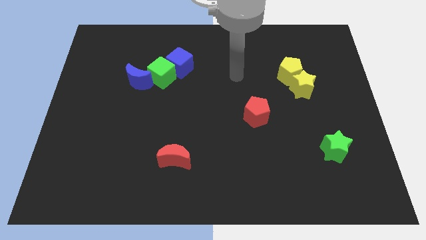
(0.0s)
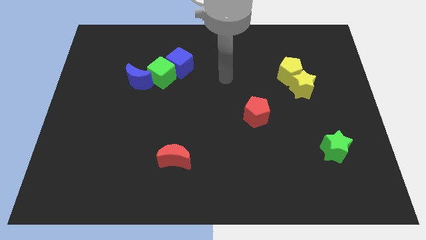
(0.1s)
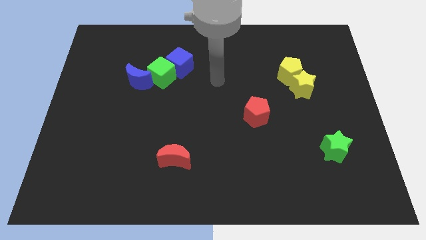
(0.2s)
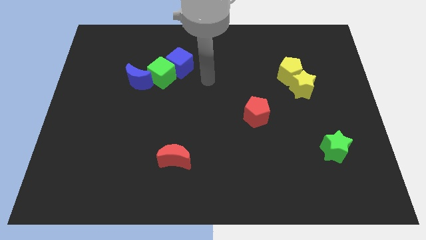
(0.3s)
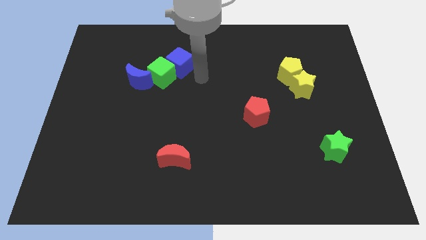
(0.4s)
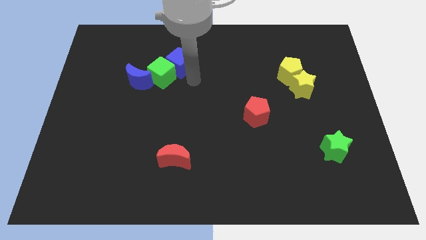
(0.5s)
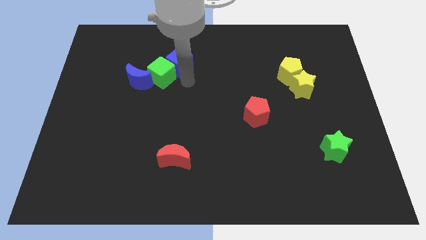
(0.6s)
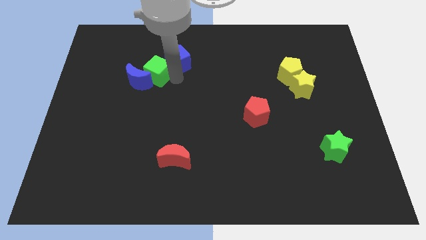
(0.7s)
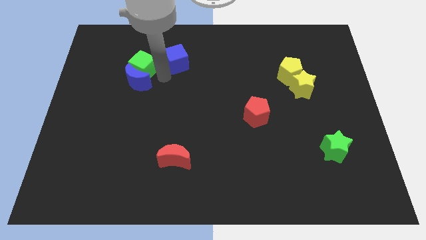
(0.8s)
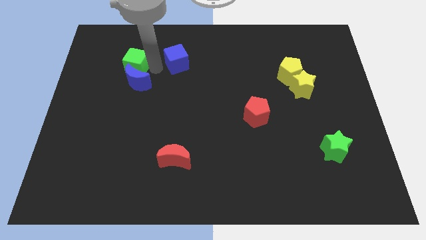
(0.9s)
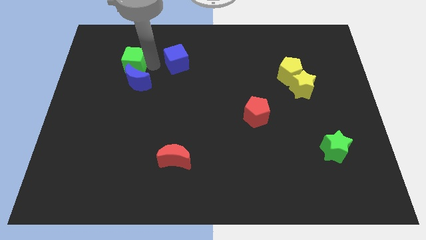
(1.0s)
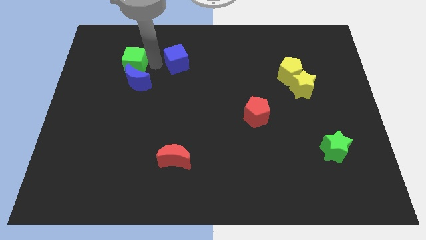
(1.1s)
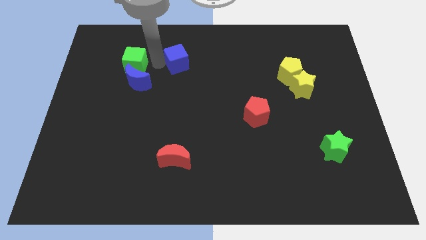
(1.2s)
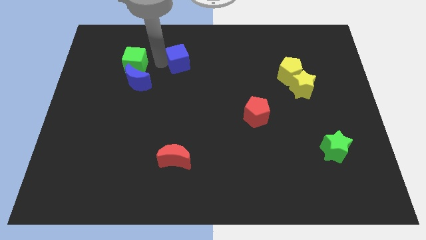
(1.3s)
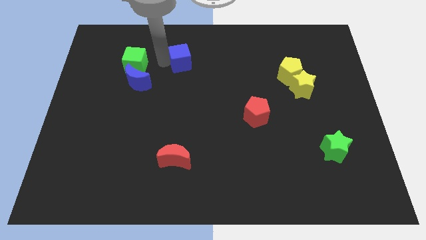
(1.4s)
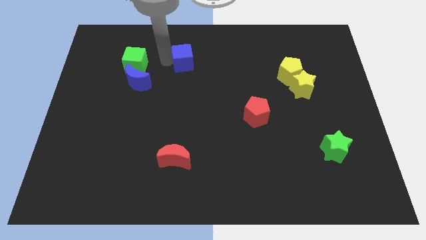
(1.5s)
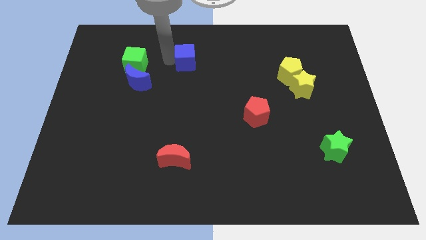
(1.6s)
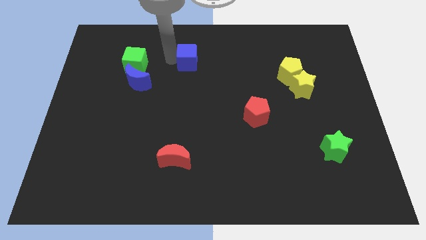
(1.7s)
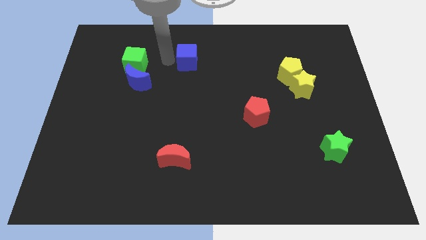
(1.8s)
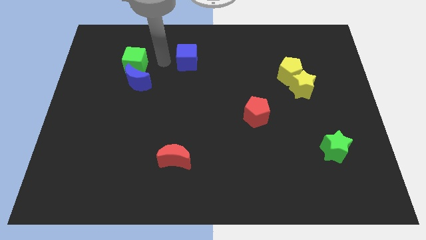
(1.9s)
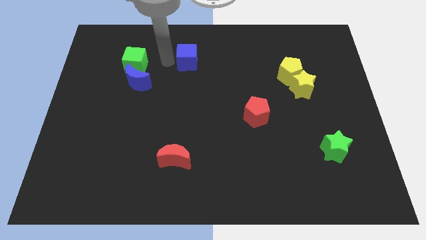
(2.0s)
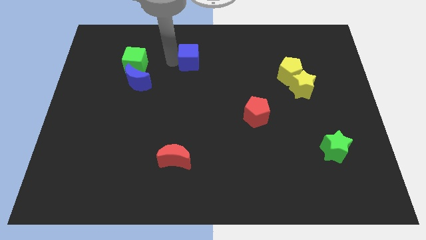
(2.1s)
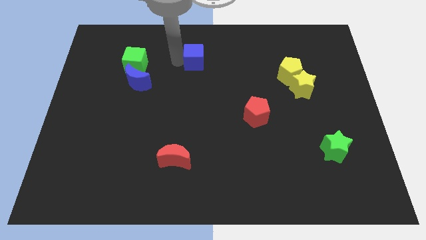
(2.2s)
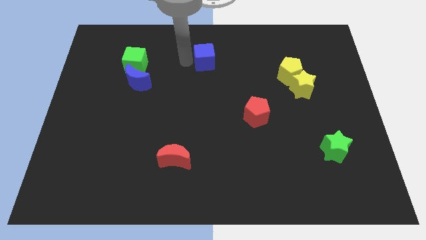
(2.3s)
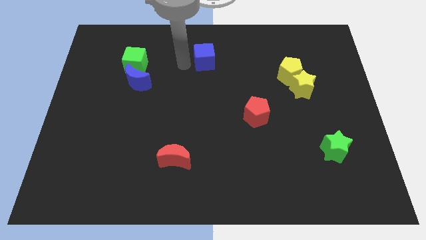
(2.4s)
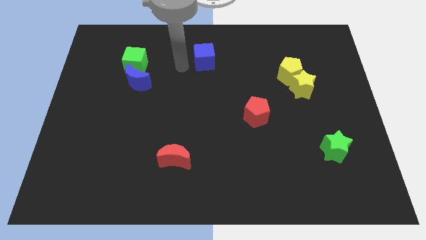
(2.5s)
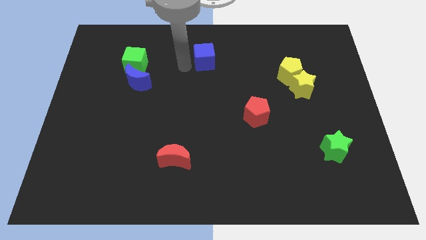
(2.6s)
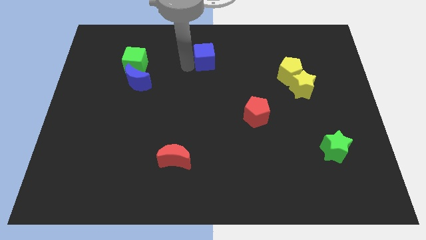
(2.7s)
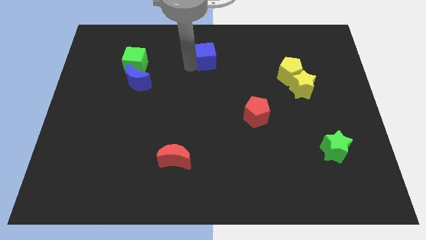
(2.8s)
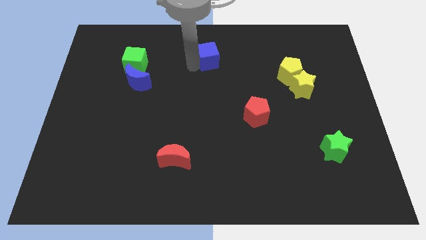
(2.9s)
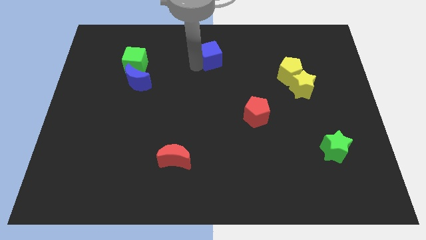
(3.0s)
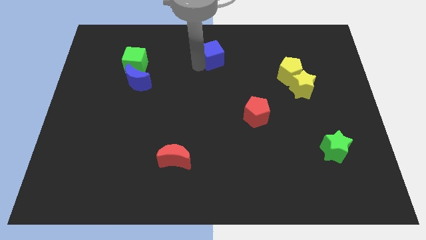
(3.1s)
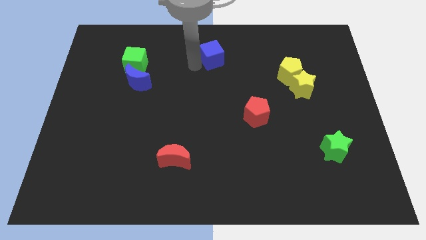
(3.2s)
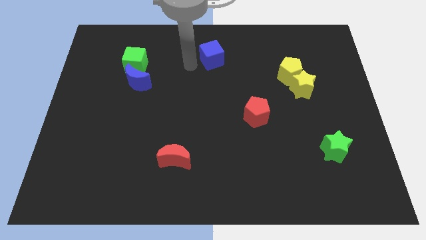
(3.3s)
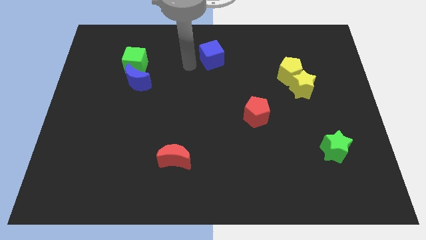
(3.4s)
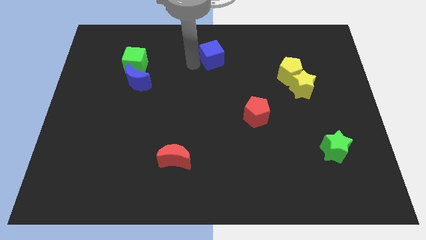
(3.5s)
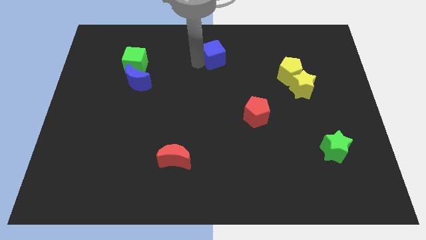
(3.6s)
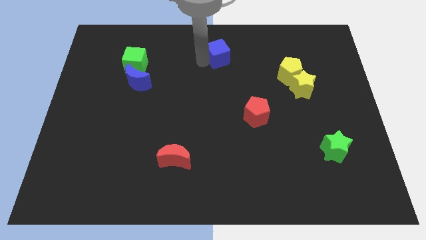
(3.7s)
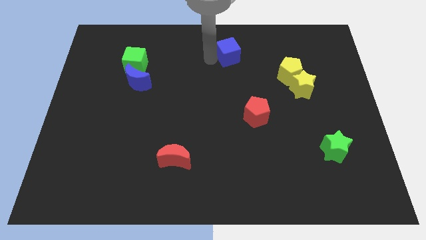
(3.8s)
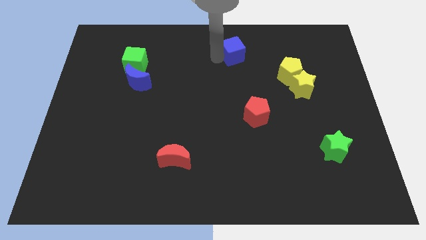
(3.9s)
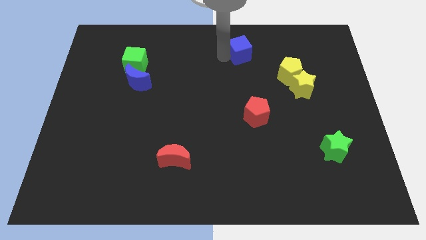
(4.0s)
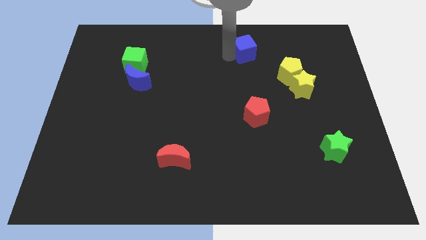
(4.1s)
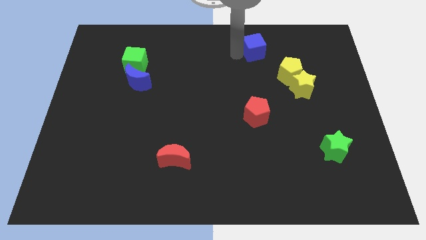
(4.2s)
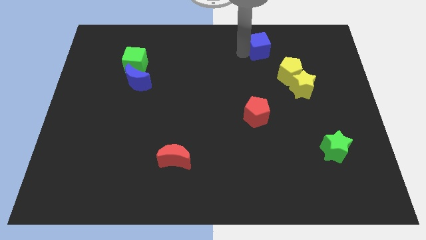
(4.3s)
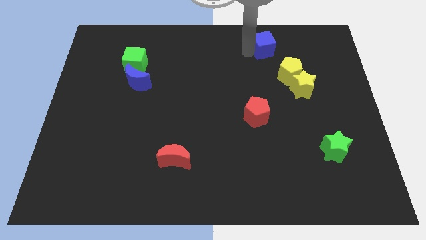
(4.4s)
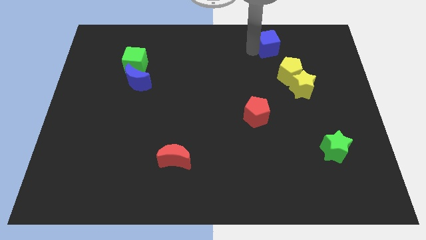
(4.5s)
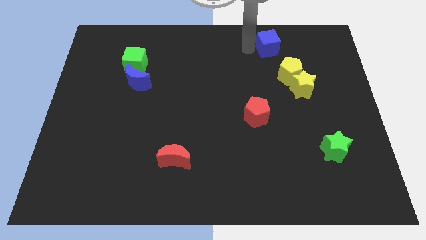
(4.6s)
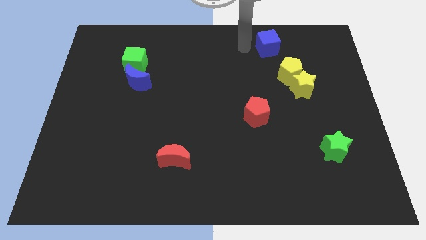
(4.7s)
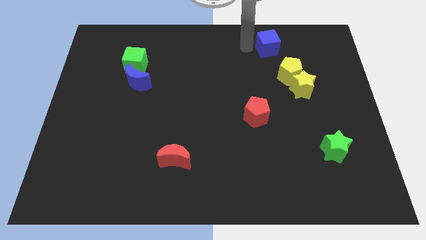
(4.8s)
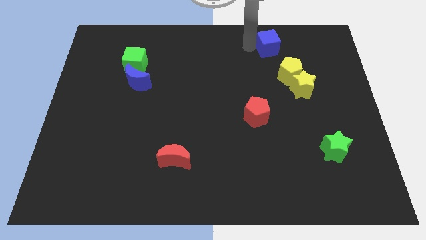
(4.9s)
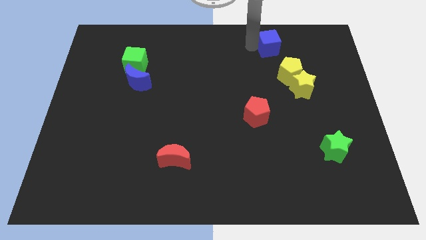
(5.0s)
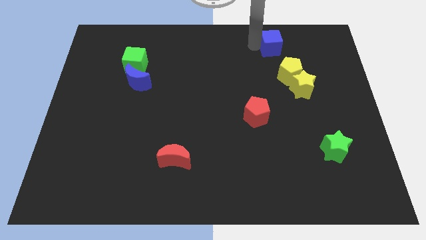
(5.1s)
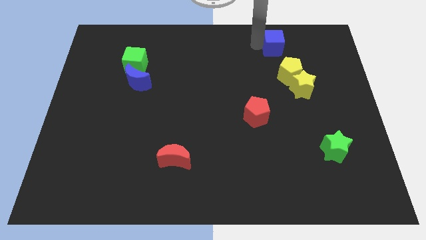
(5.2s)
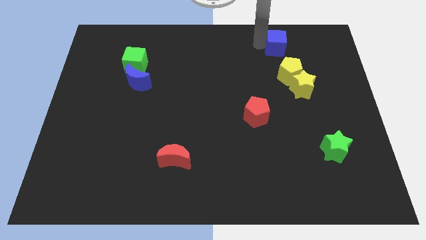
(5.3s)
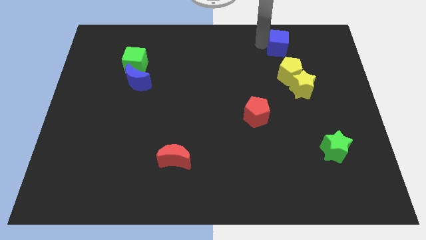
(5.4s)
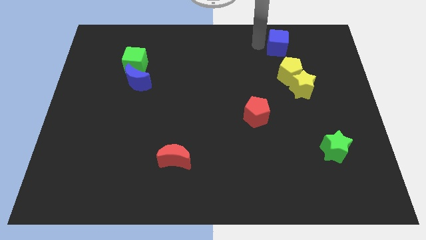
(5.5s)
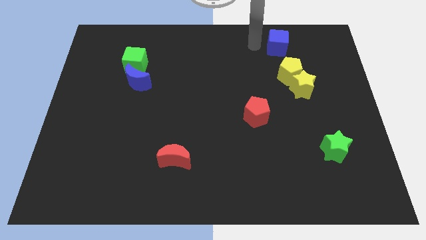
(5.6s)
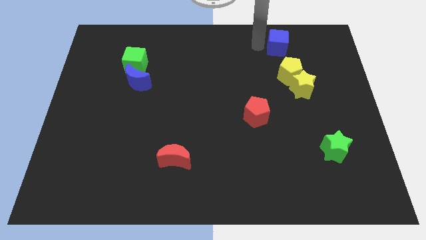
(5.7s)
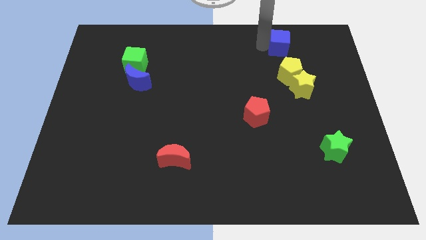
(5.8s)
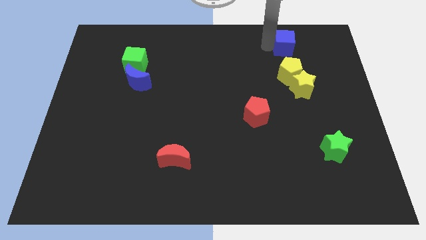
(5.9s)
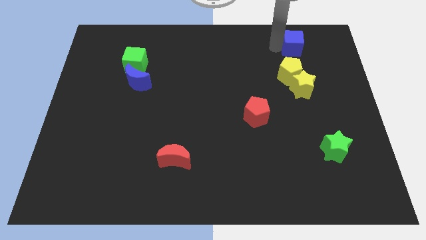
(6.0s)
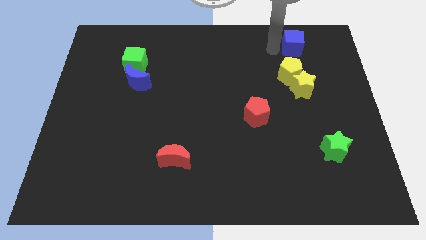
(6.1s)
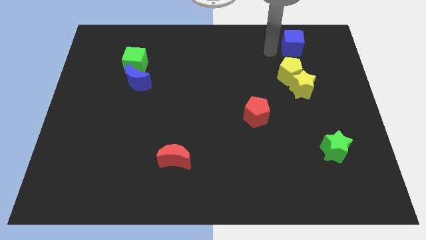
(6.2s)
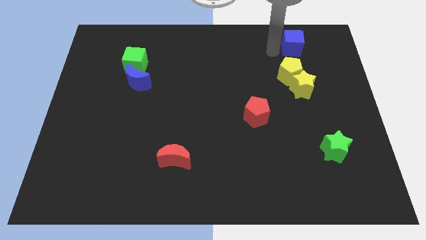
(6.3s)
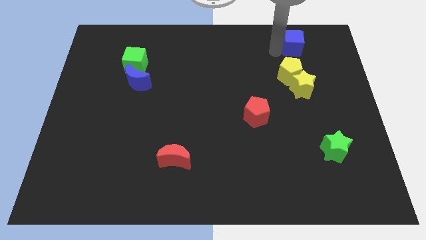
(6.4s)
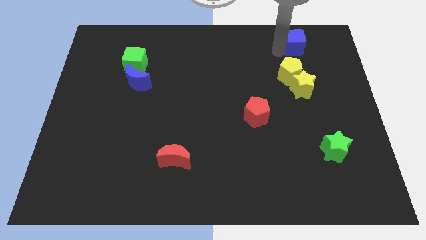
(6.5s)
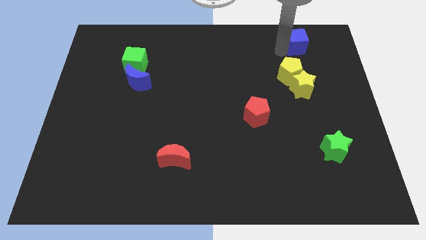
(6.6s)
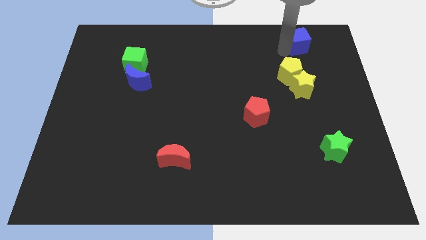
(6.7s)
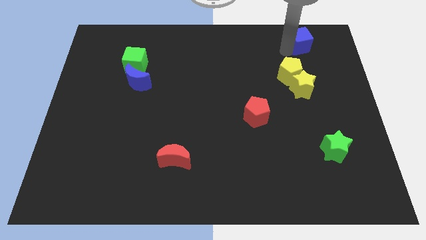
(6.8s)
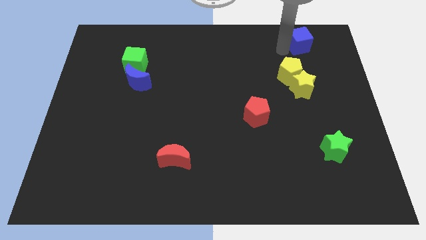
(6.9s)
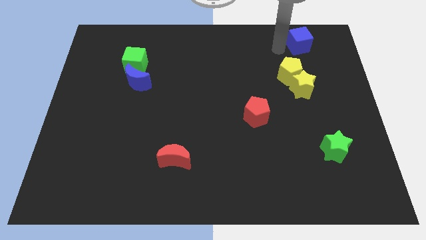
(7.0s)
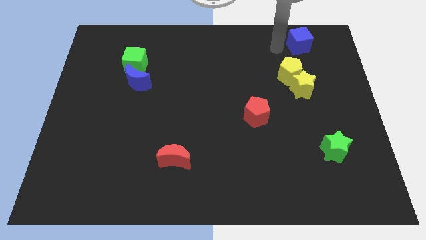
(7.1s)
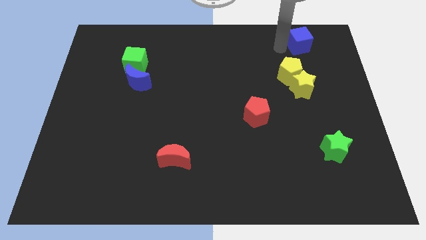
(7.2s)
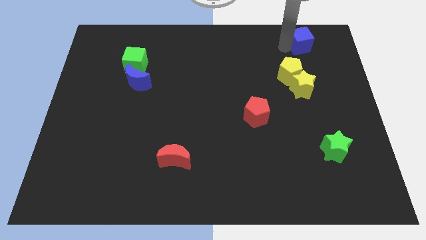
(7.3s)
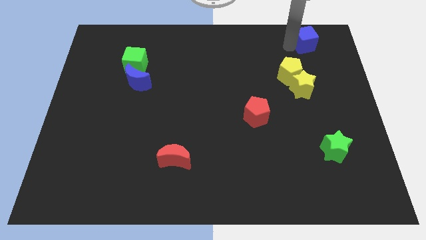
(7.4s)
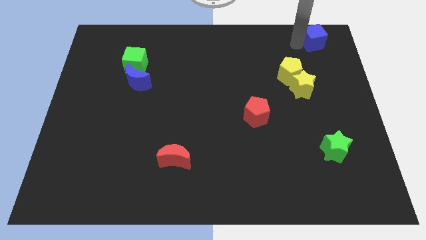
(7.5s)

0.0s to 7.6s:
push the blue cube to the upper right corner
